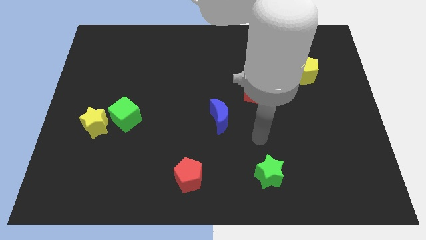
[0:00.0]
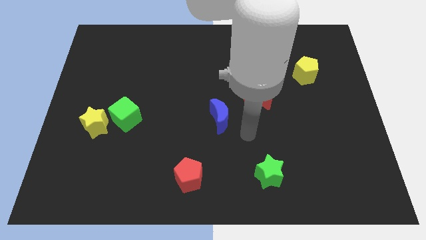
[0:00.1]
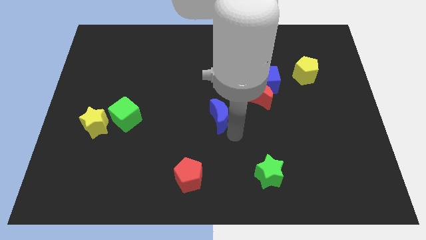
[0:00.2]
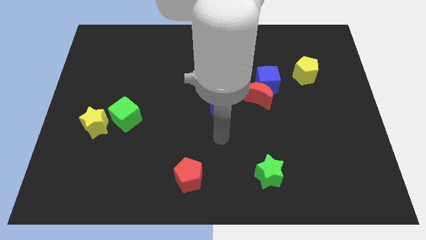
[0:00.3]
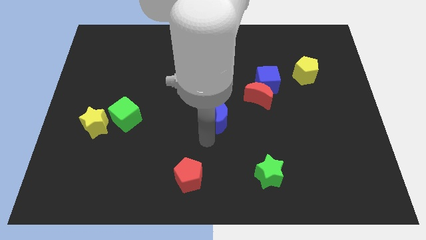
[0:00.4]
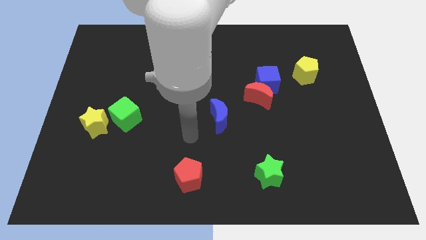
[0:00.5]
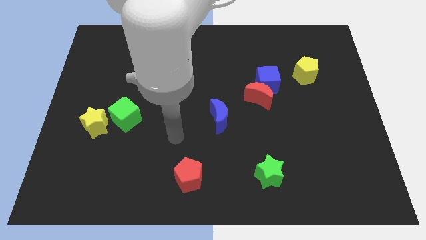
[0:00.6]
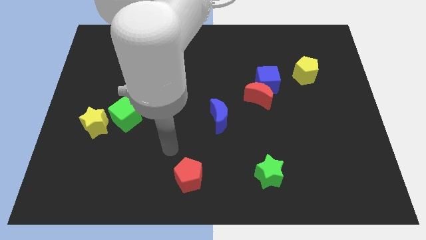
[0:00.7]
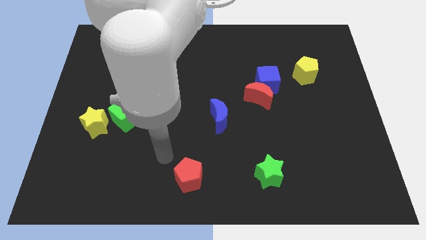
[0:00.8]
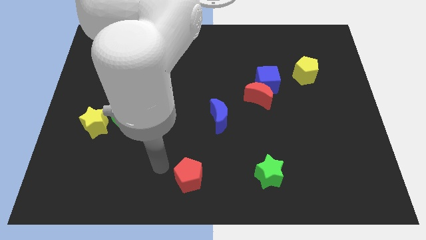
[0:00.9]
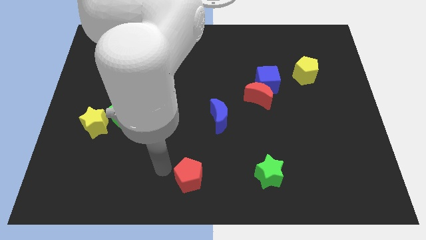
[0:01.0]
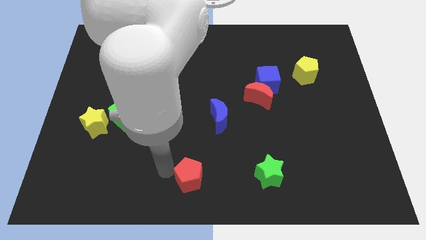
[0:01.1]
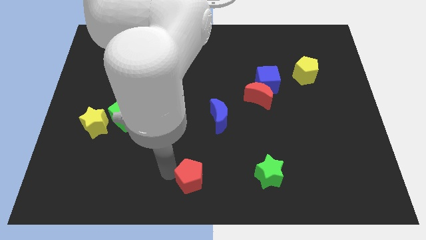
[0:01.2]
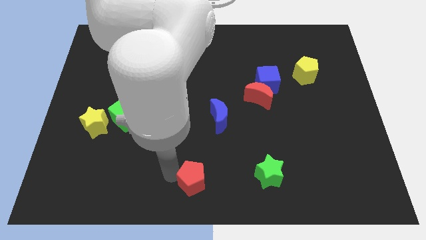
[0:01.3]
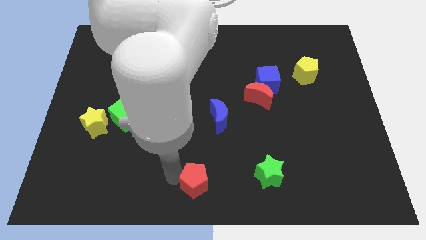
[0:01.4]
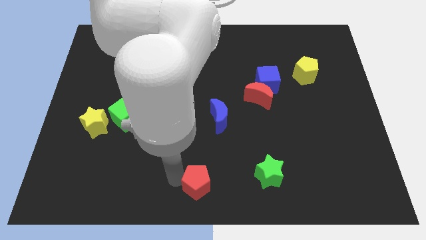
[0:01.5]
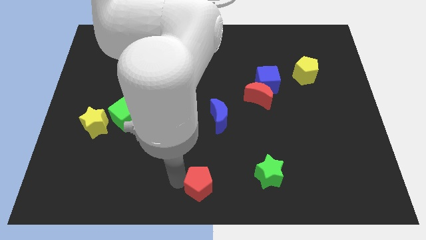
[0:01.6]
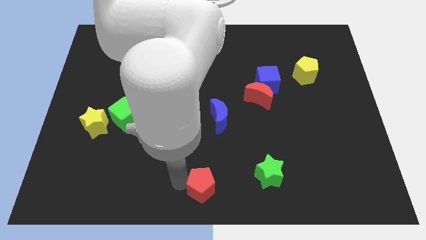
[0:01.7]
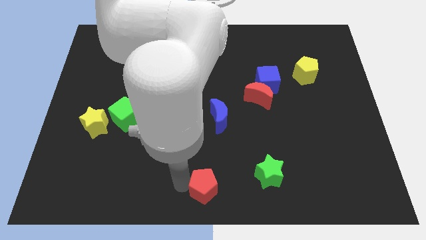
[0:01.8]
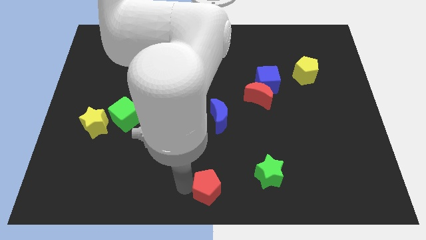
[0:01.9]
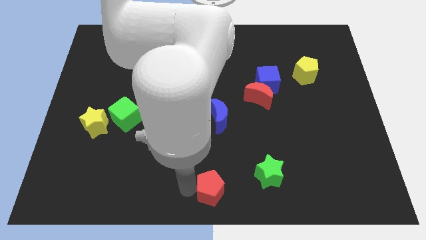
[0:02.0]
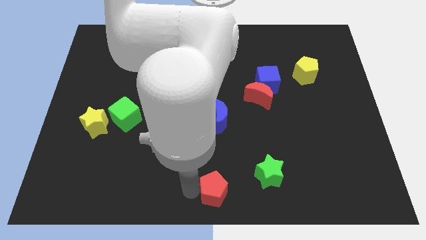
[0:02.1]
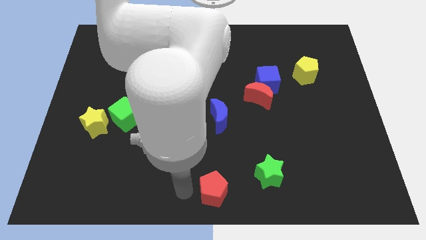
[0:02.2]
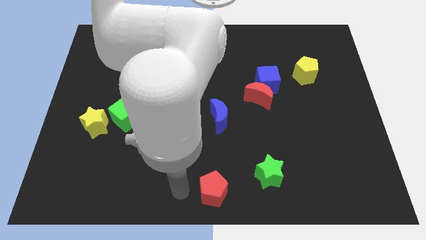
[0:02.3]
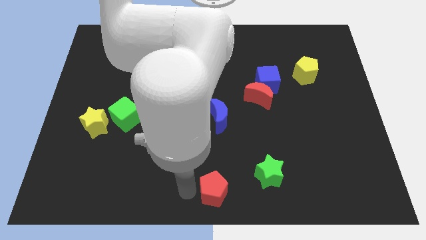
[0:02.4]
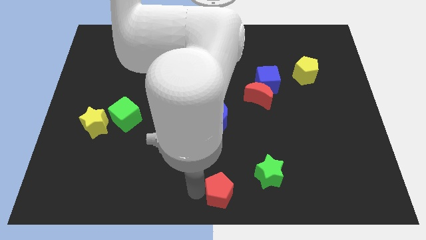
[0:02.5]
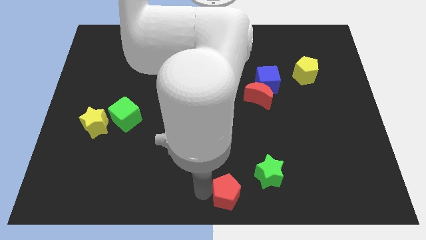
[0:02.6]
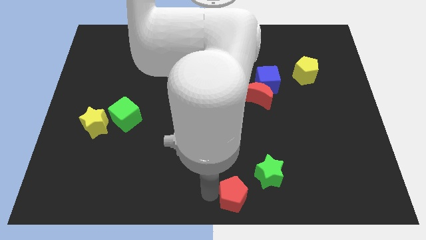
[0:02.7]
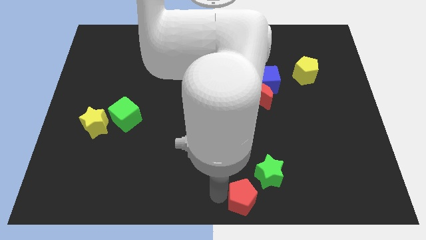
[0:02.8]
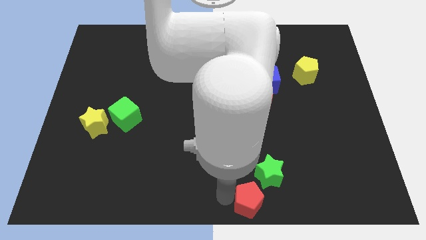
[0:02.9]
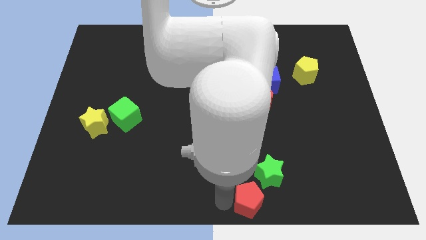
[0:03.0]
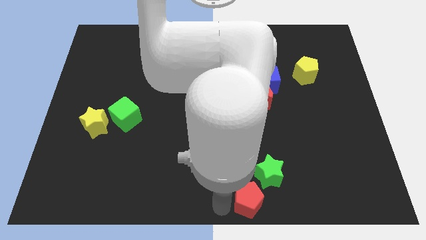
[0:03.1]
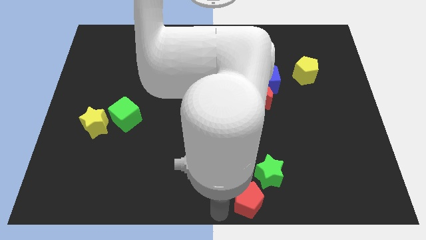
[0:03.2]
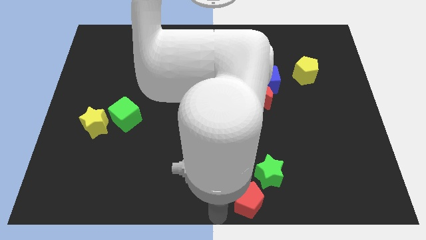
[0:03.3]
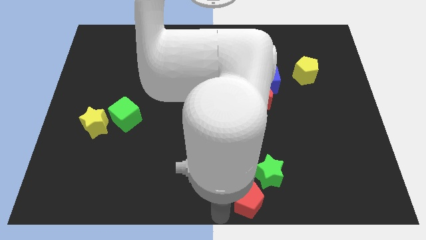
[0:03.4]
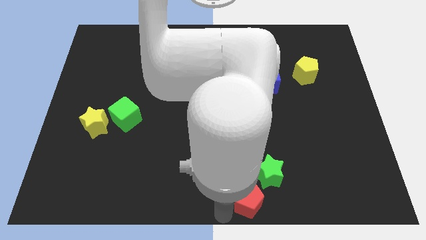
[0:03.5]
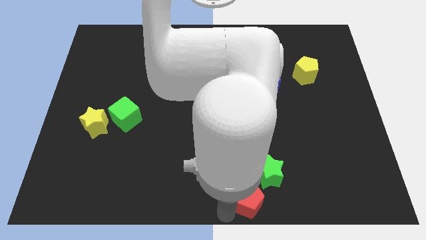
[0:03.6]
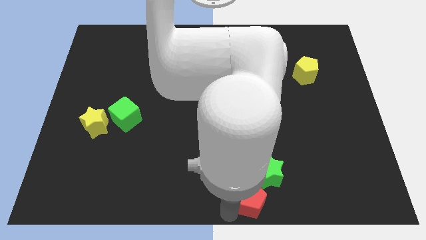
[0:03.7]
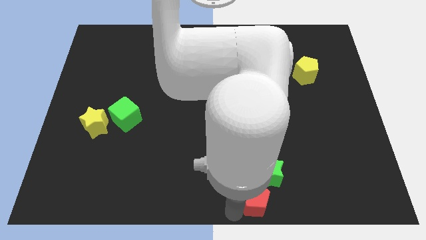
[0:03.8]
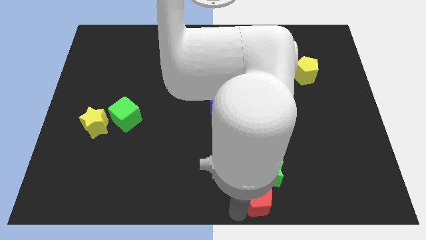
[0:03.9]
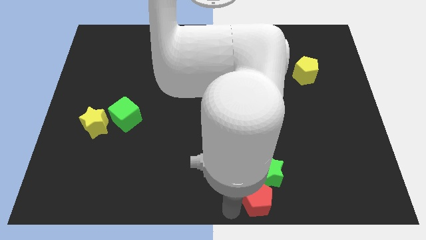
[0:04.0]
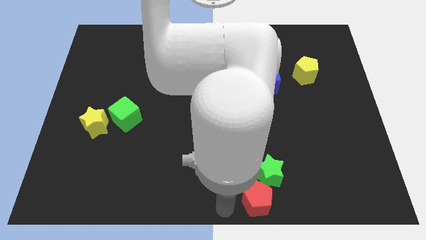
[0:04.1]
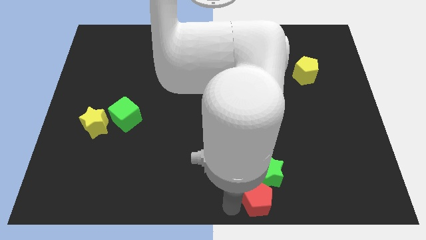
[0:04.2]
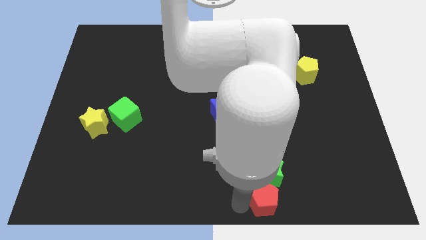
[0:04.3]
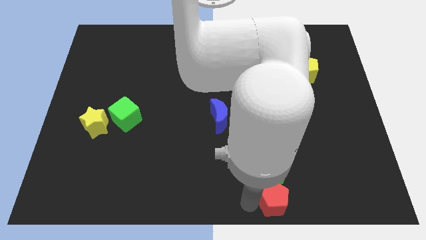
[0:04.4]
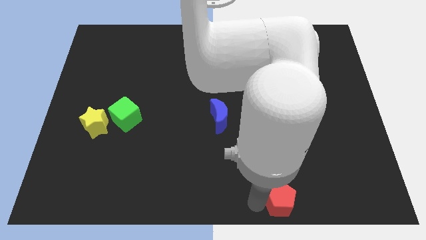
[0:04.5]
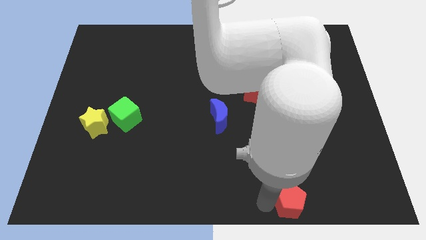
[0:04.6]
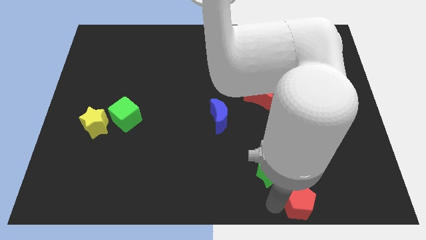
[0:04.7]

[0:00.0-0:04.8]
push the red pentagon to the right

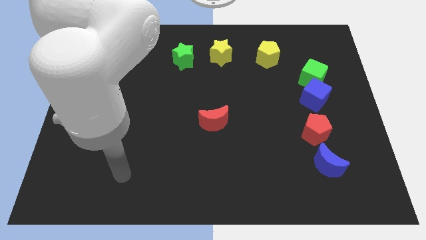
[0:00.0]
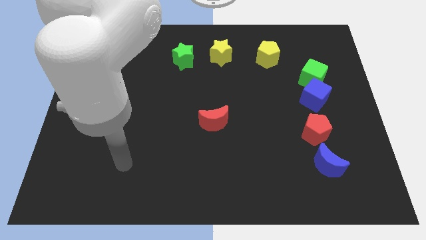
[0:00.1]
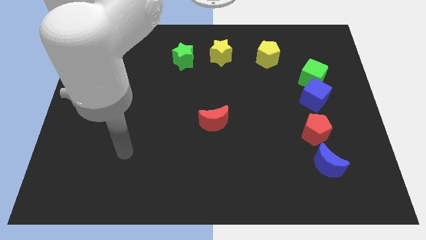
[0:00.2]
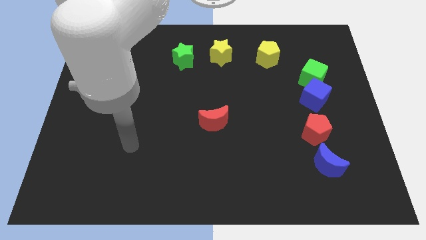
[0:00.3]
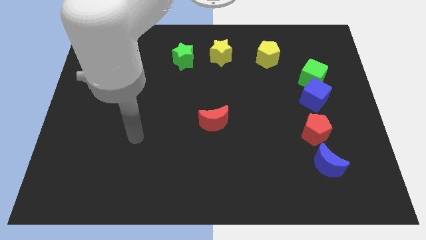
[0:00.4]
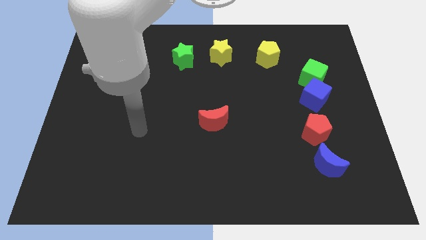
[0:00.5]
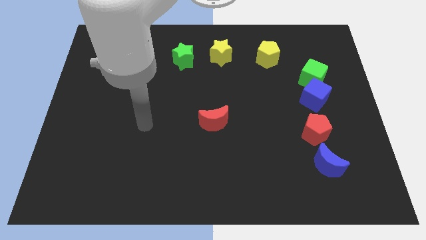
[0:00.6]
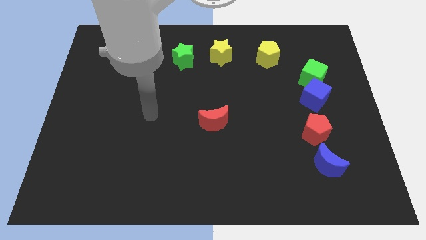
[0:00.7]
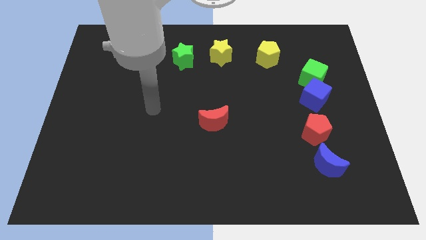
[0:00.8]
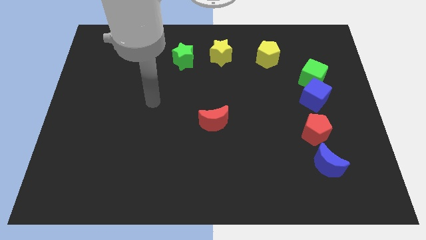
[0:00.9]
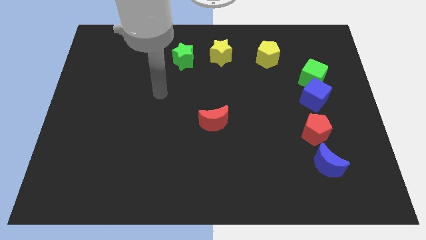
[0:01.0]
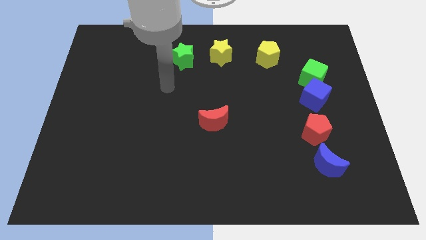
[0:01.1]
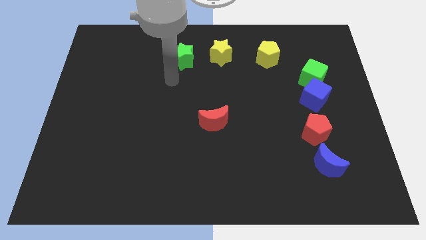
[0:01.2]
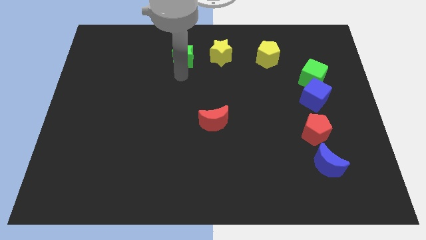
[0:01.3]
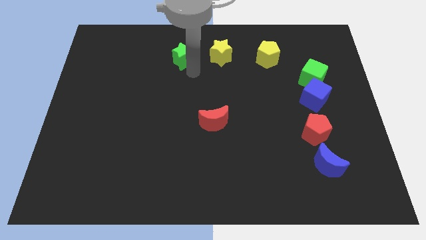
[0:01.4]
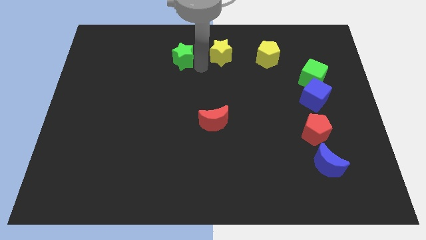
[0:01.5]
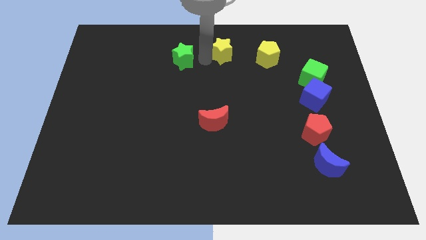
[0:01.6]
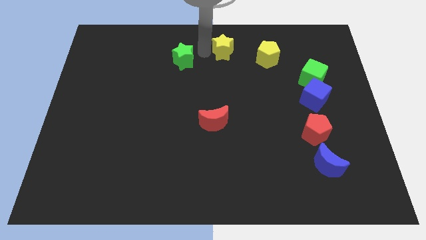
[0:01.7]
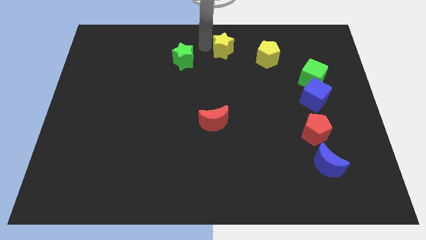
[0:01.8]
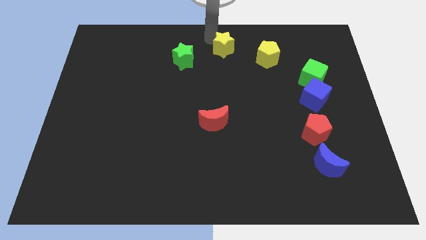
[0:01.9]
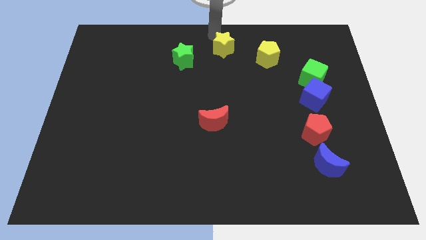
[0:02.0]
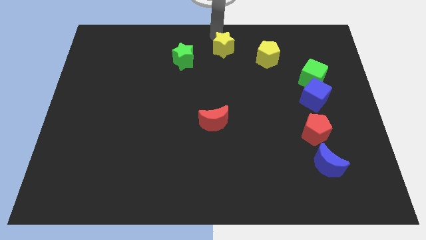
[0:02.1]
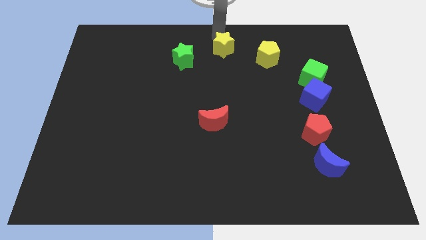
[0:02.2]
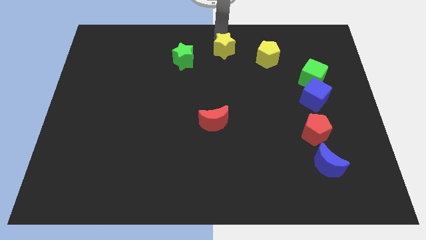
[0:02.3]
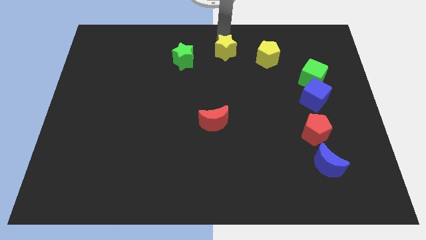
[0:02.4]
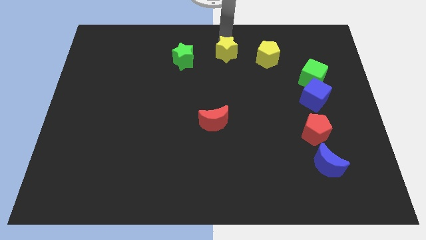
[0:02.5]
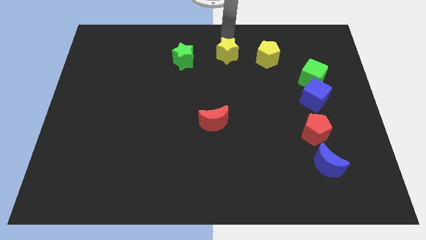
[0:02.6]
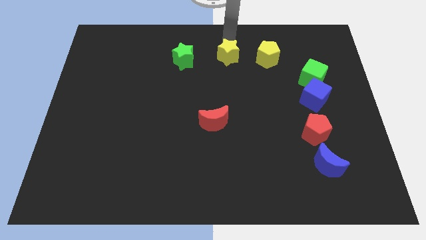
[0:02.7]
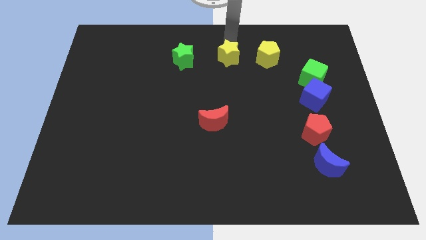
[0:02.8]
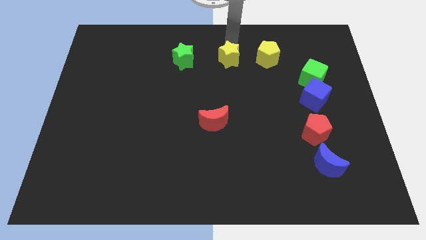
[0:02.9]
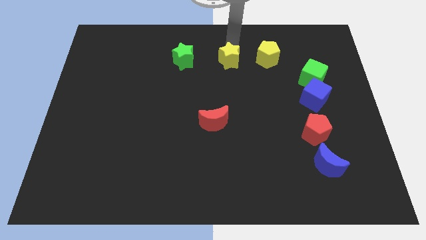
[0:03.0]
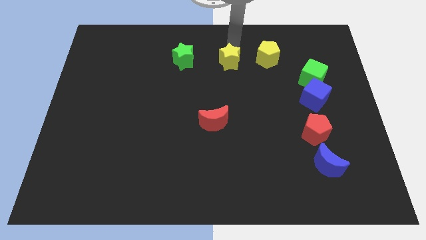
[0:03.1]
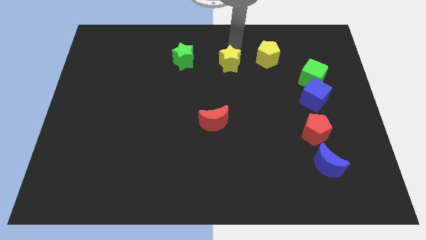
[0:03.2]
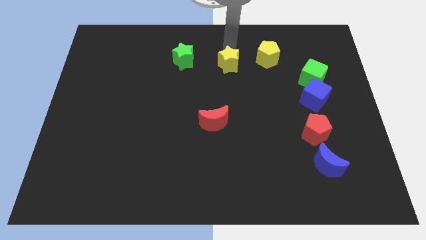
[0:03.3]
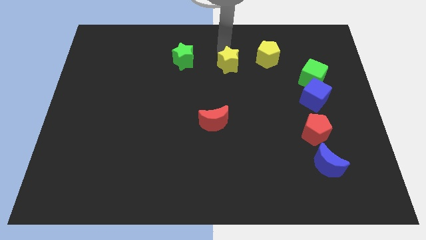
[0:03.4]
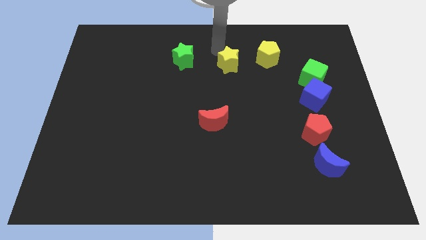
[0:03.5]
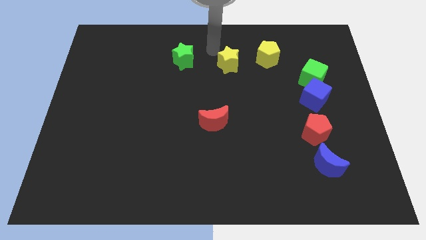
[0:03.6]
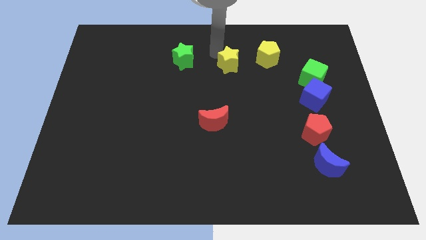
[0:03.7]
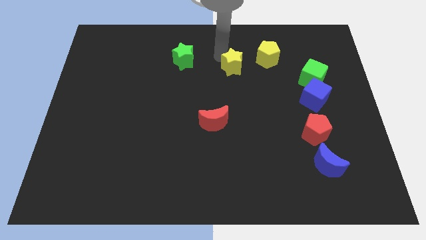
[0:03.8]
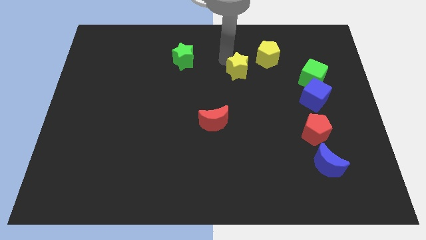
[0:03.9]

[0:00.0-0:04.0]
push the yellow star a little bit downwards and then to the right
